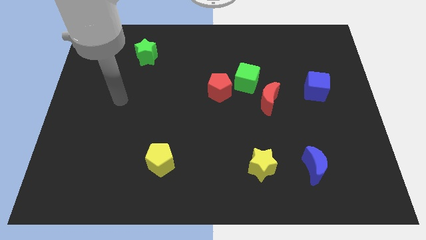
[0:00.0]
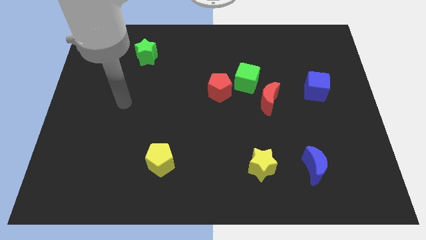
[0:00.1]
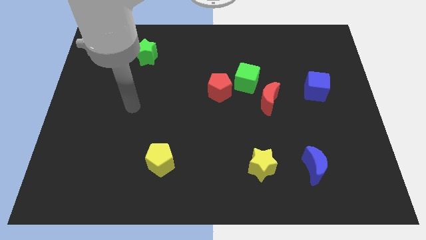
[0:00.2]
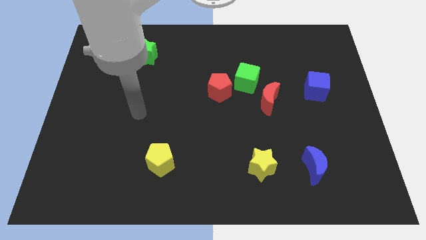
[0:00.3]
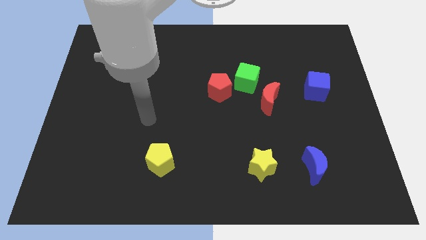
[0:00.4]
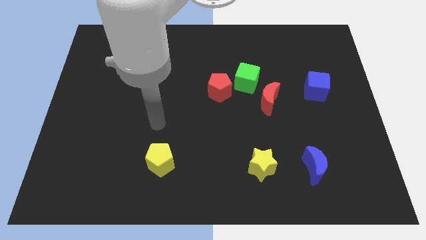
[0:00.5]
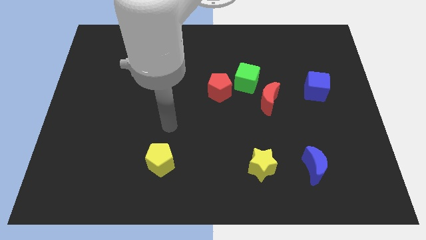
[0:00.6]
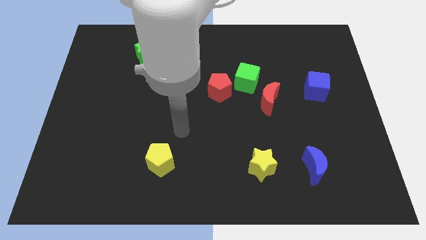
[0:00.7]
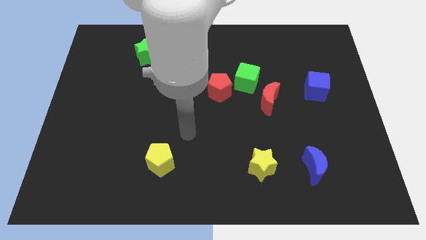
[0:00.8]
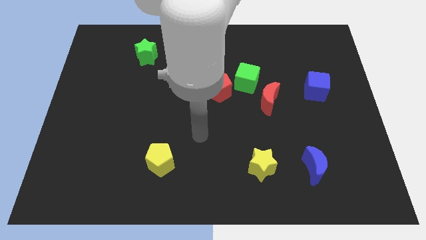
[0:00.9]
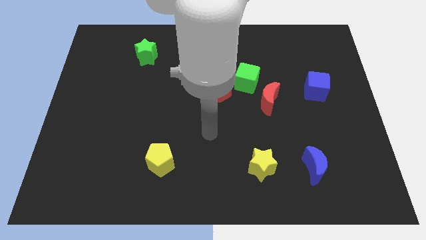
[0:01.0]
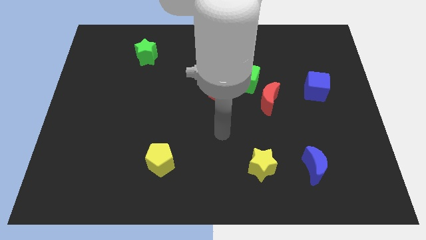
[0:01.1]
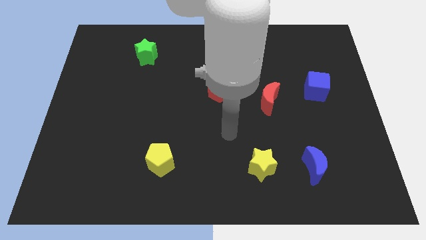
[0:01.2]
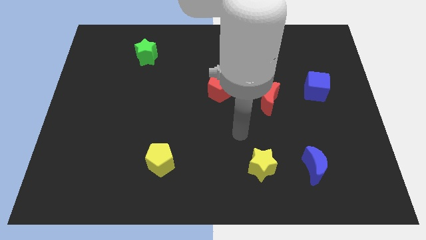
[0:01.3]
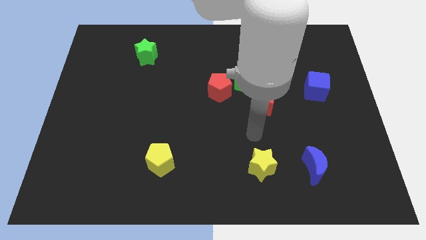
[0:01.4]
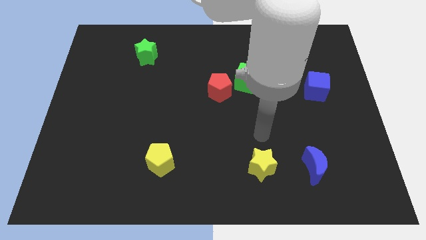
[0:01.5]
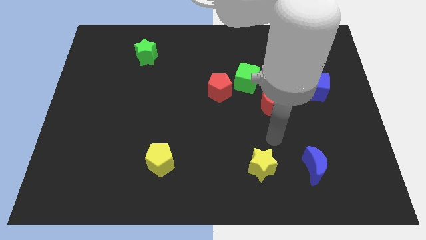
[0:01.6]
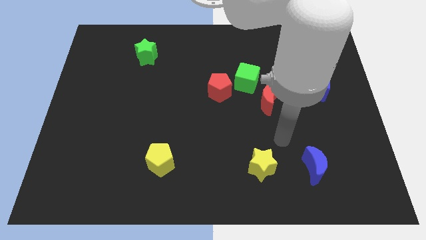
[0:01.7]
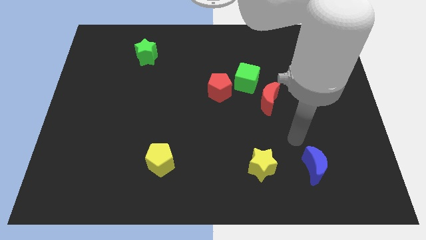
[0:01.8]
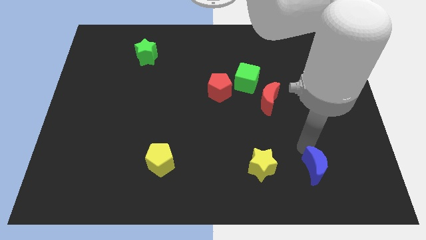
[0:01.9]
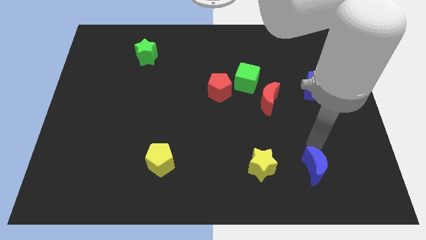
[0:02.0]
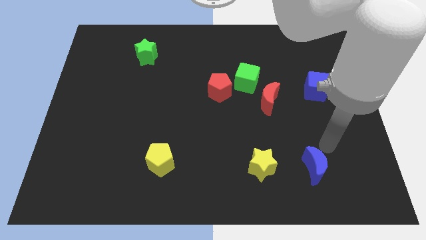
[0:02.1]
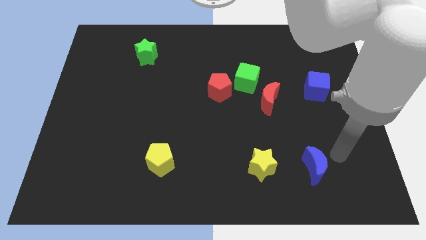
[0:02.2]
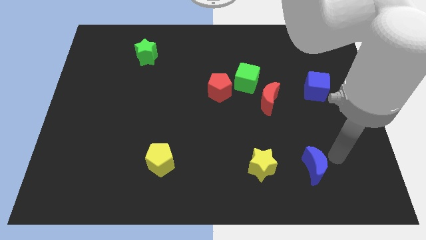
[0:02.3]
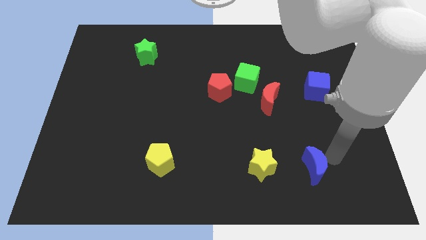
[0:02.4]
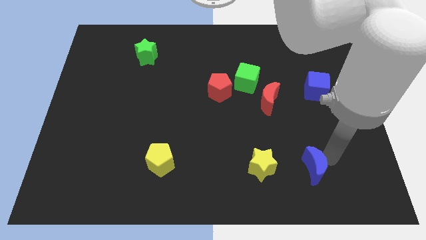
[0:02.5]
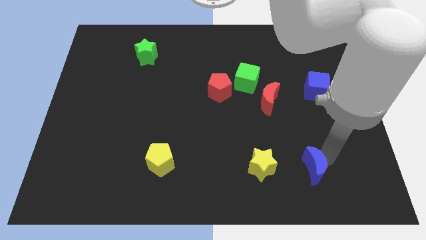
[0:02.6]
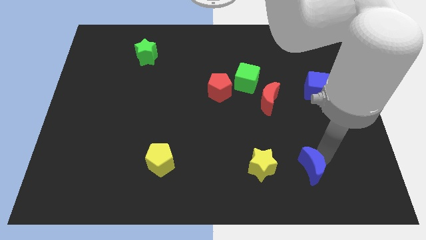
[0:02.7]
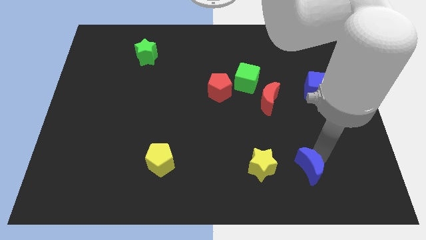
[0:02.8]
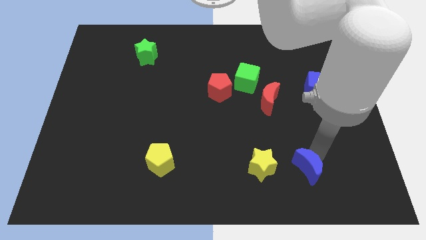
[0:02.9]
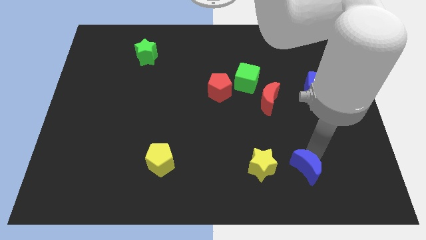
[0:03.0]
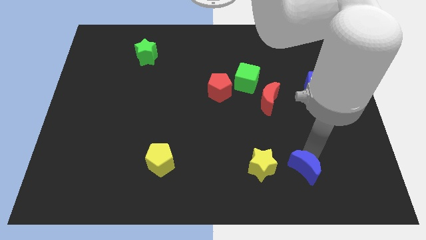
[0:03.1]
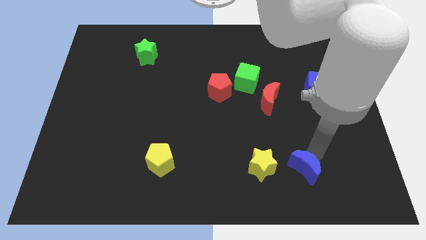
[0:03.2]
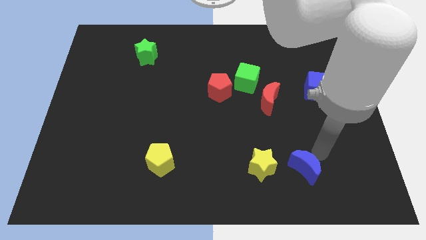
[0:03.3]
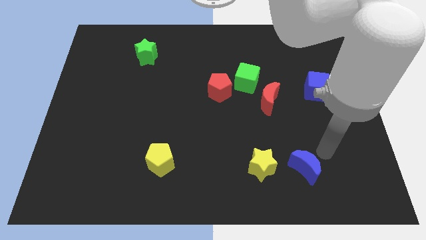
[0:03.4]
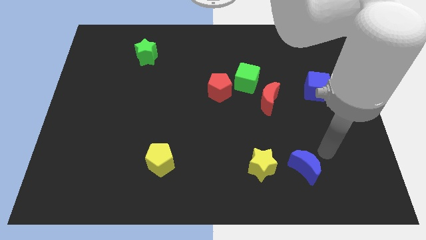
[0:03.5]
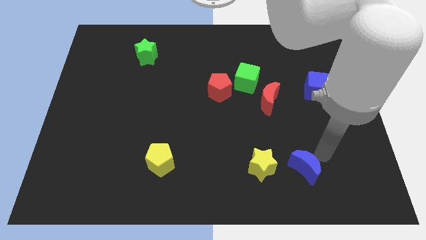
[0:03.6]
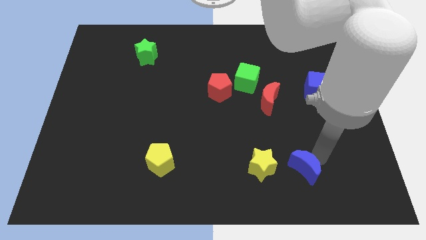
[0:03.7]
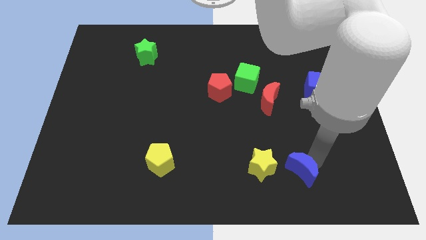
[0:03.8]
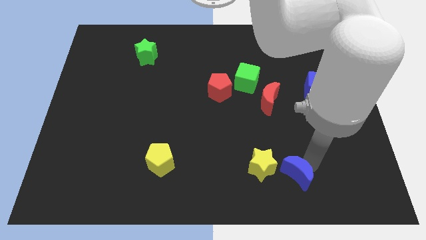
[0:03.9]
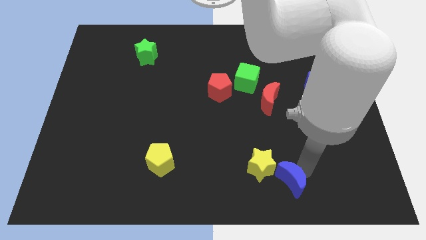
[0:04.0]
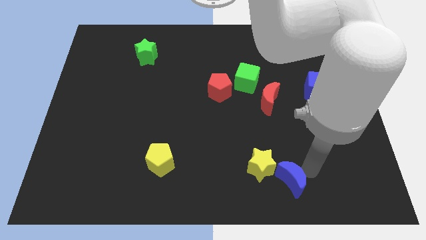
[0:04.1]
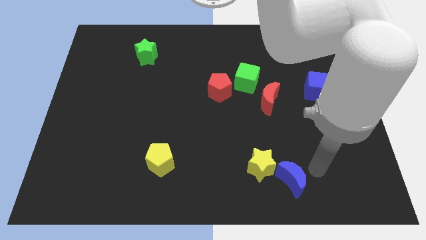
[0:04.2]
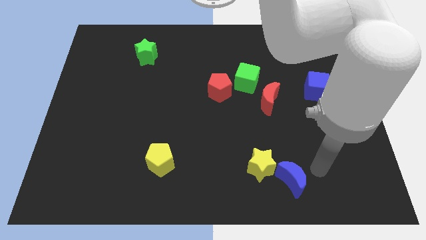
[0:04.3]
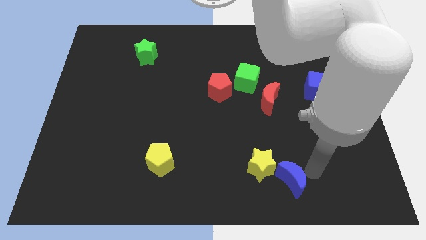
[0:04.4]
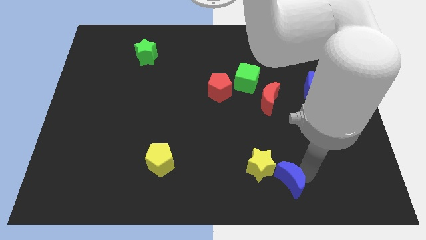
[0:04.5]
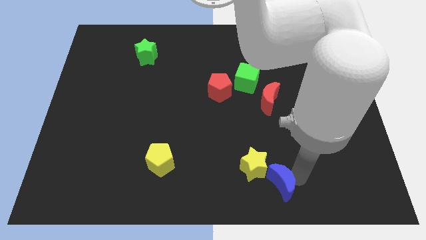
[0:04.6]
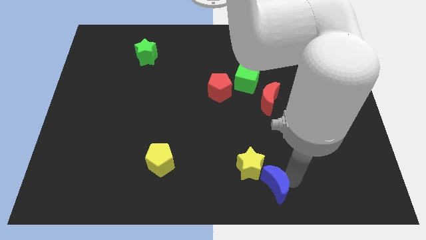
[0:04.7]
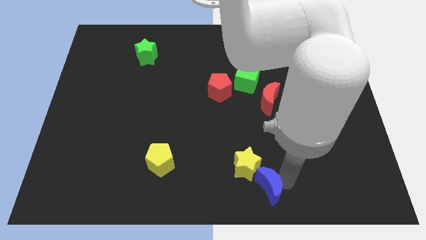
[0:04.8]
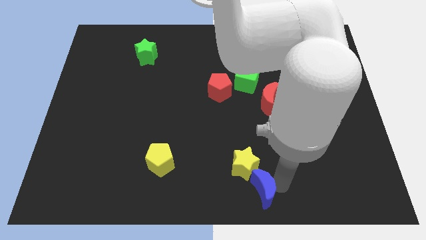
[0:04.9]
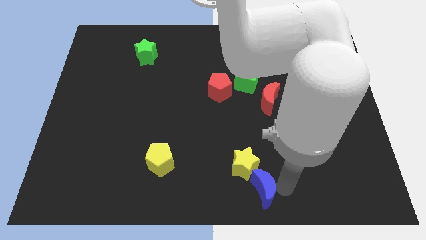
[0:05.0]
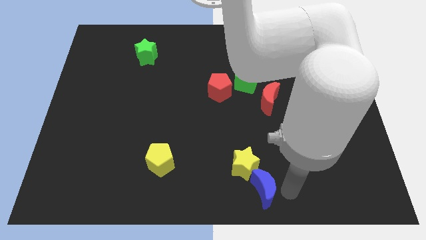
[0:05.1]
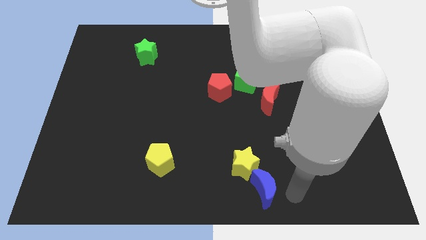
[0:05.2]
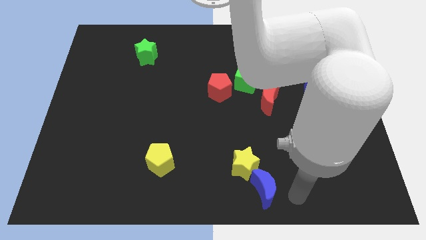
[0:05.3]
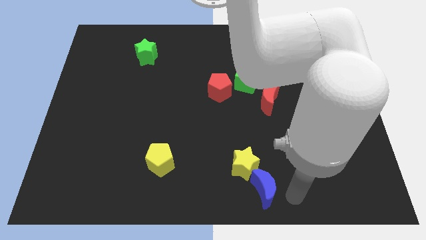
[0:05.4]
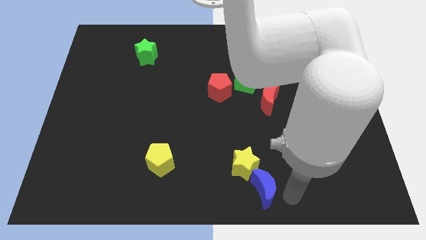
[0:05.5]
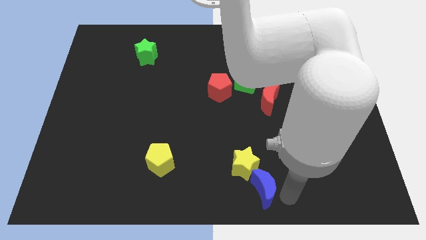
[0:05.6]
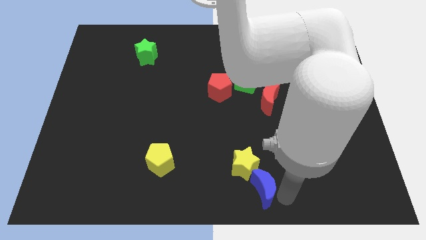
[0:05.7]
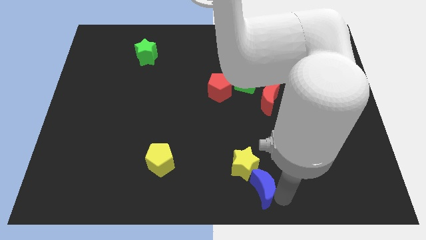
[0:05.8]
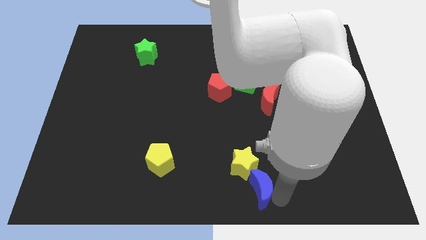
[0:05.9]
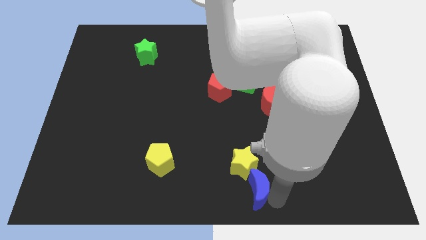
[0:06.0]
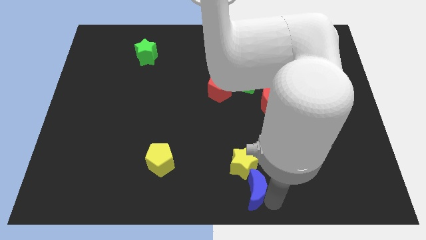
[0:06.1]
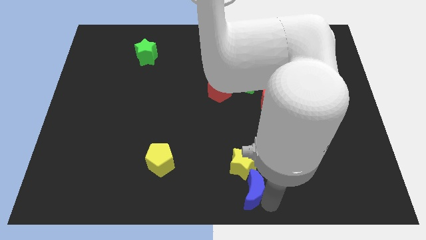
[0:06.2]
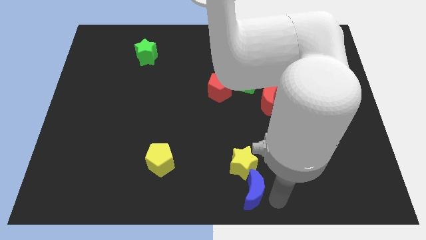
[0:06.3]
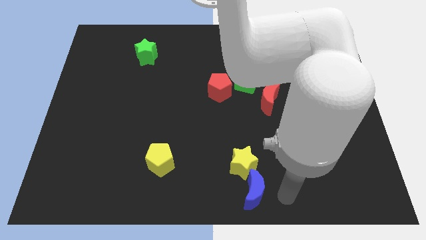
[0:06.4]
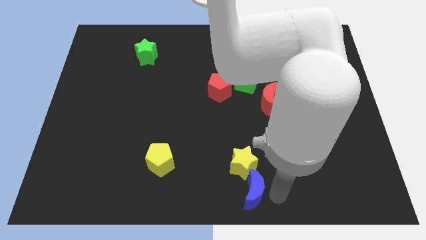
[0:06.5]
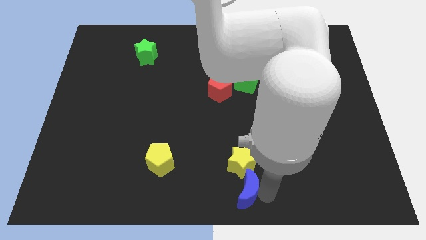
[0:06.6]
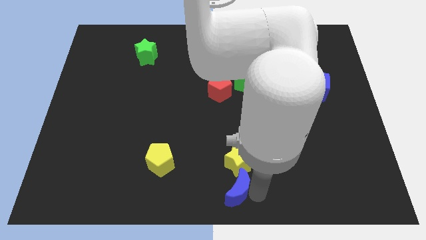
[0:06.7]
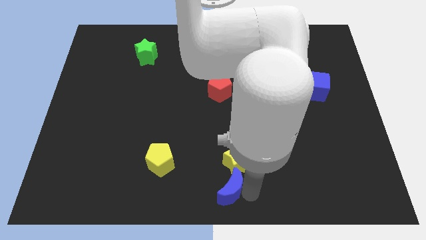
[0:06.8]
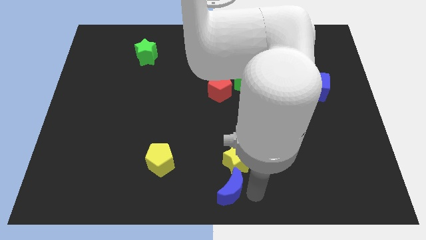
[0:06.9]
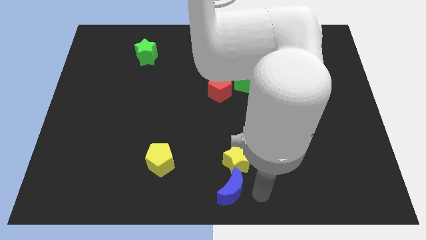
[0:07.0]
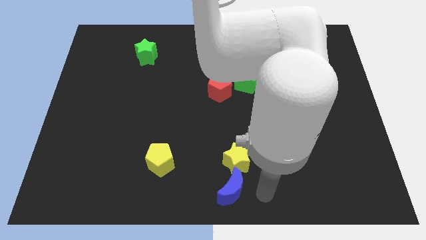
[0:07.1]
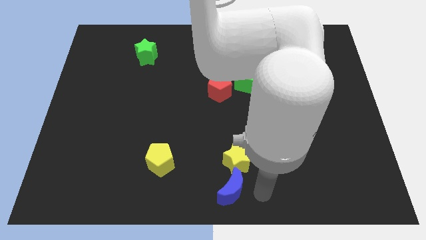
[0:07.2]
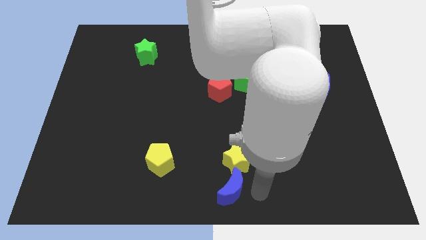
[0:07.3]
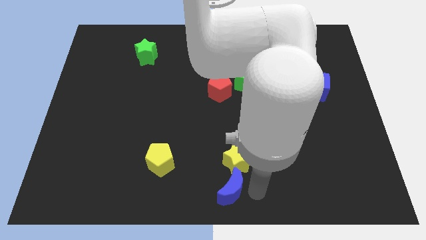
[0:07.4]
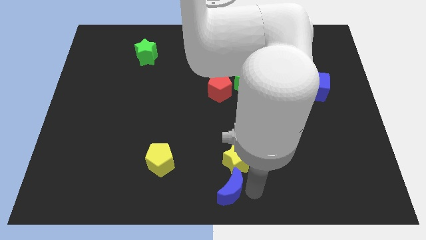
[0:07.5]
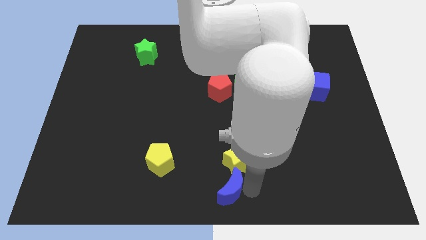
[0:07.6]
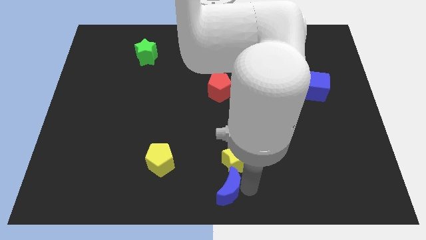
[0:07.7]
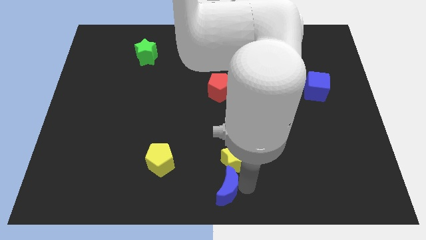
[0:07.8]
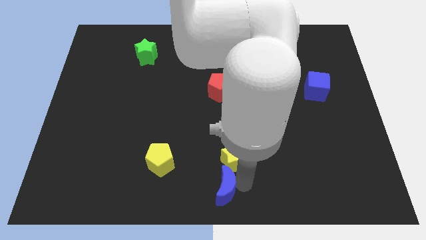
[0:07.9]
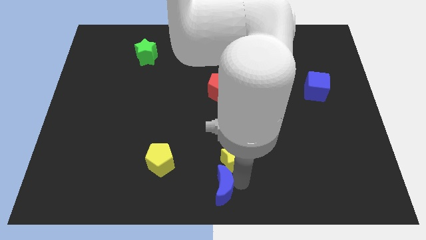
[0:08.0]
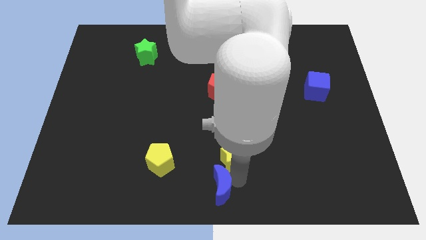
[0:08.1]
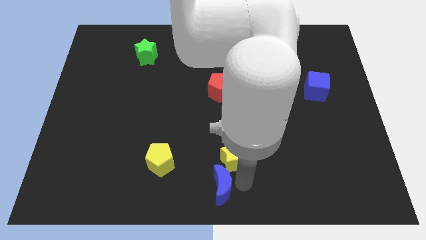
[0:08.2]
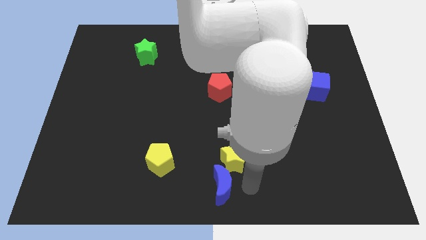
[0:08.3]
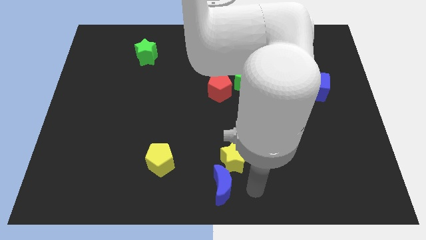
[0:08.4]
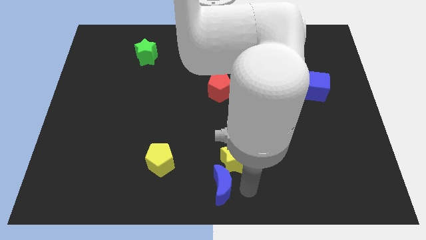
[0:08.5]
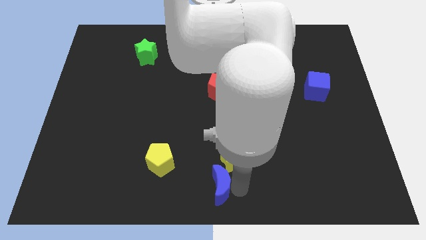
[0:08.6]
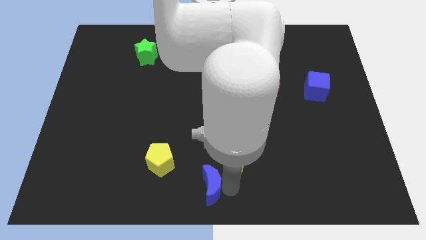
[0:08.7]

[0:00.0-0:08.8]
push the blue moon to the bottom right side of the yellow pentagon
